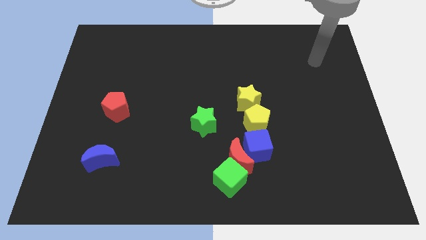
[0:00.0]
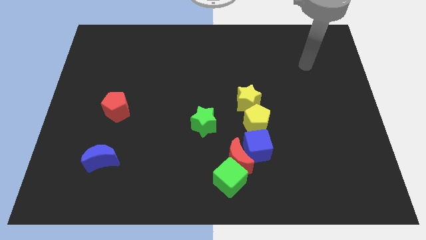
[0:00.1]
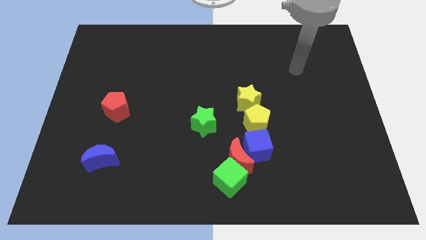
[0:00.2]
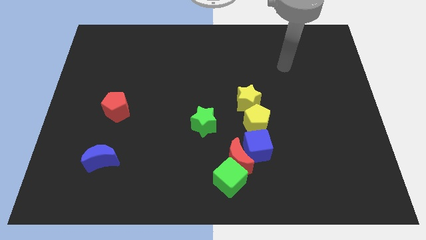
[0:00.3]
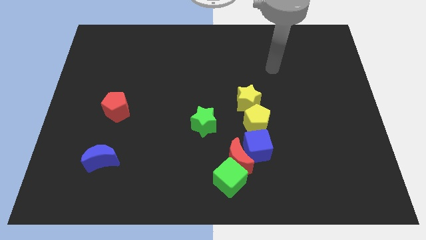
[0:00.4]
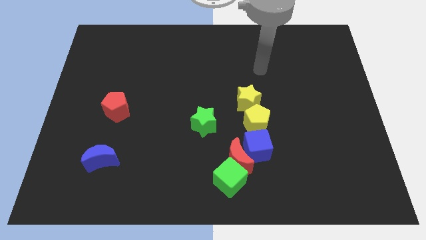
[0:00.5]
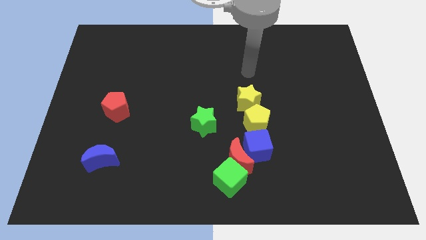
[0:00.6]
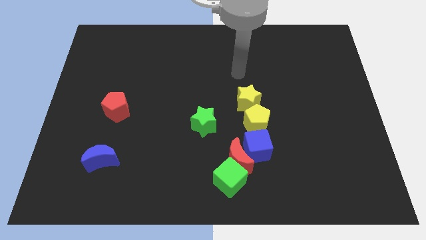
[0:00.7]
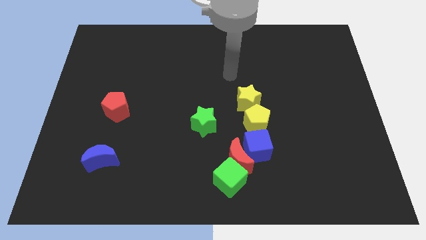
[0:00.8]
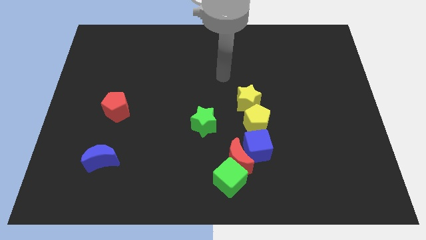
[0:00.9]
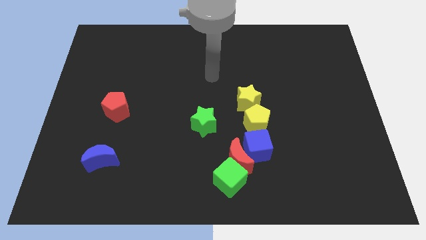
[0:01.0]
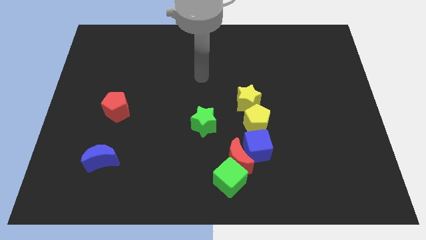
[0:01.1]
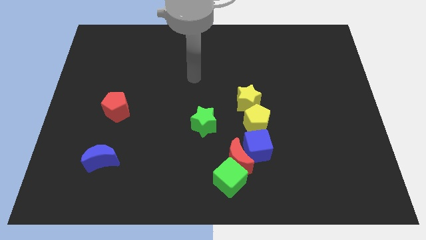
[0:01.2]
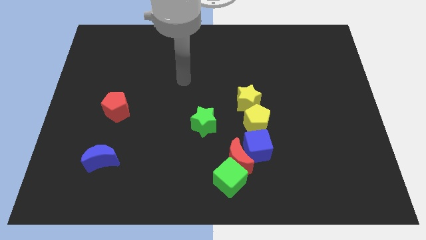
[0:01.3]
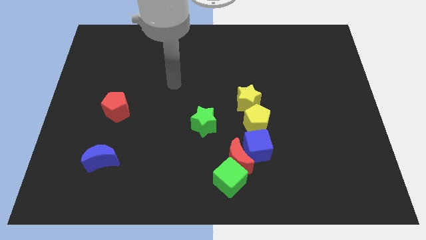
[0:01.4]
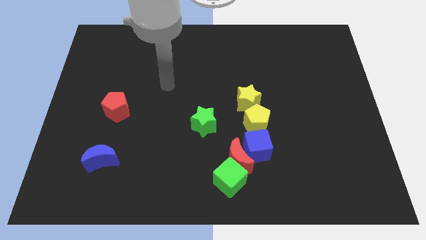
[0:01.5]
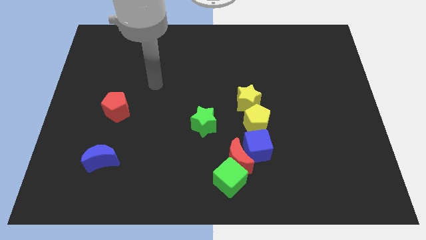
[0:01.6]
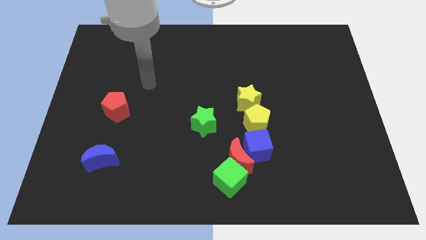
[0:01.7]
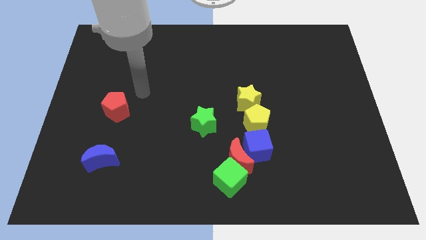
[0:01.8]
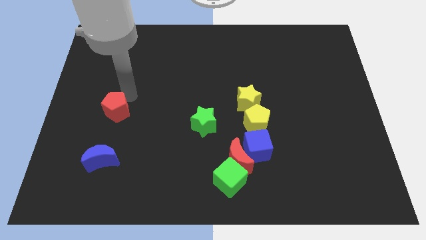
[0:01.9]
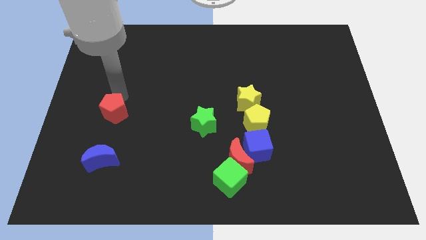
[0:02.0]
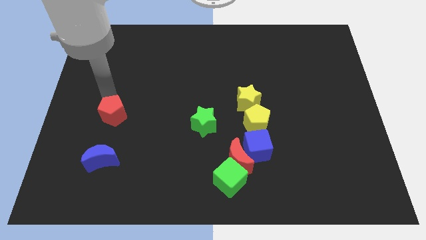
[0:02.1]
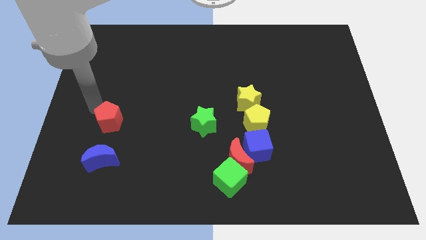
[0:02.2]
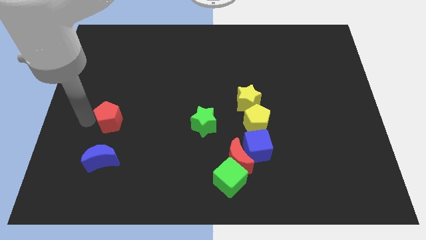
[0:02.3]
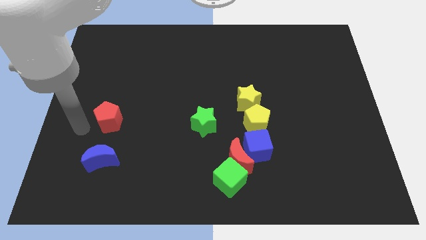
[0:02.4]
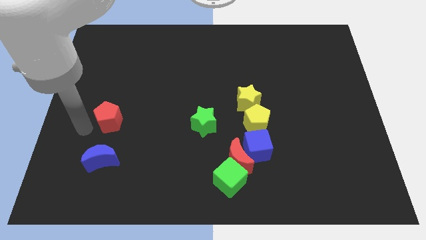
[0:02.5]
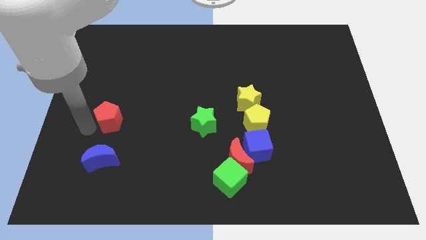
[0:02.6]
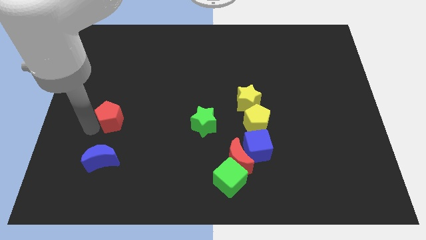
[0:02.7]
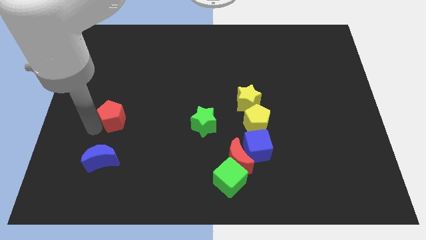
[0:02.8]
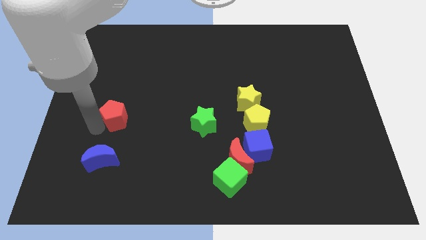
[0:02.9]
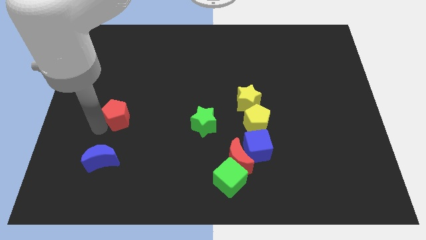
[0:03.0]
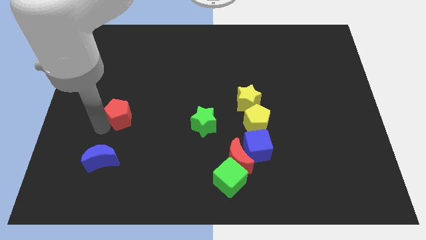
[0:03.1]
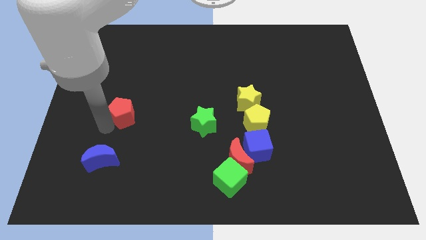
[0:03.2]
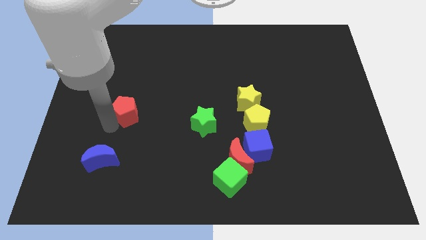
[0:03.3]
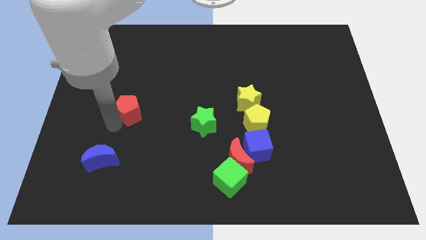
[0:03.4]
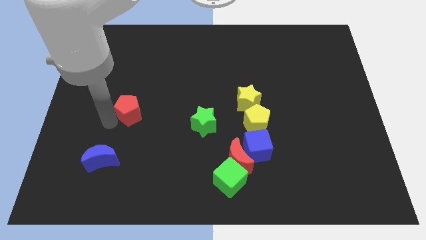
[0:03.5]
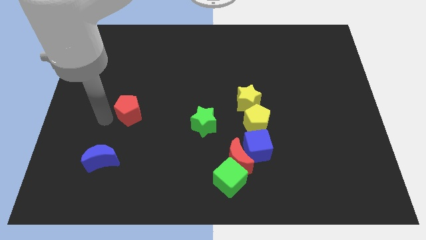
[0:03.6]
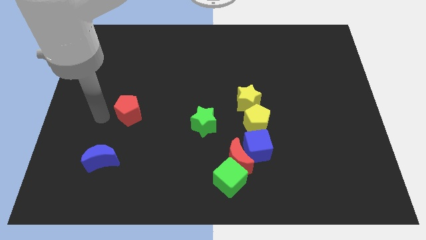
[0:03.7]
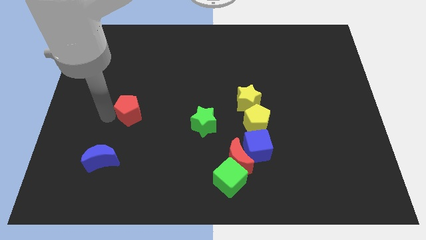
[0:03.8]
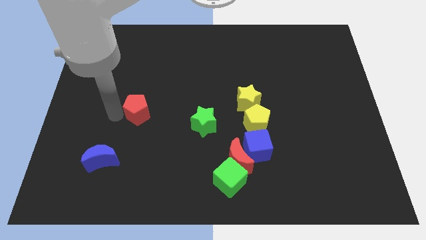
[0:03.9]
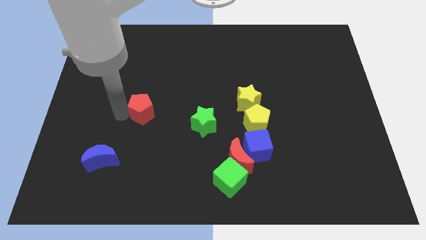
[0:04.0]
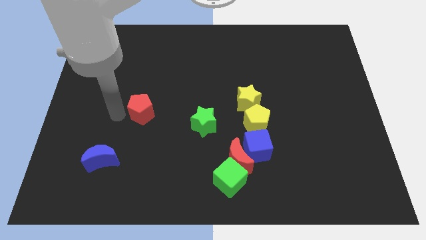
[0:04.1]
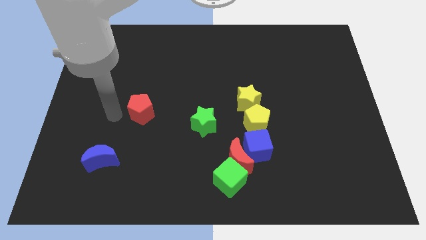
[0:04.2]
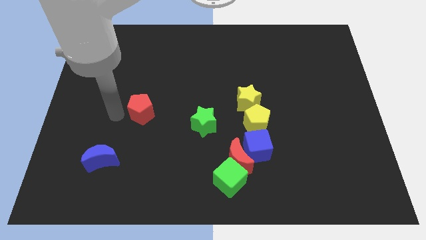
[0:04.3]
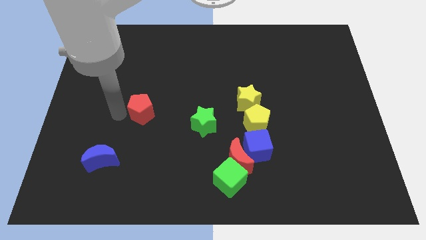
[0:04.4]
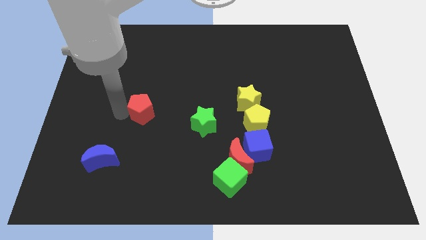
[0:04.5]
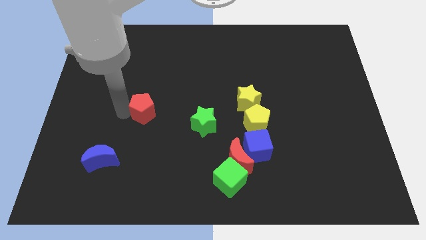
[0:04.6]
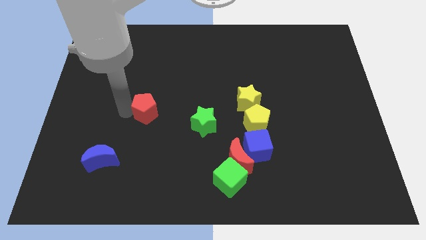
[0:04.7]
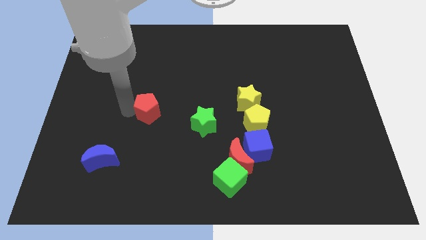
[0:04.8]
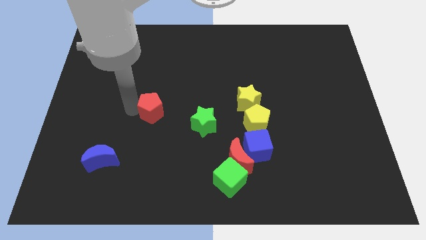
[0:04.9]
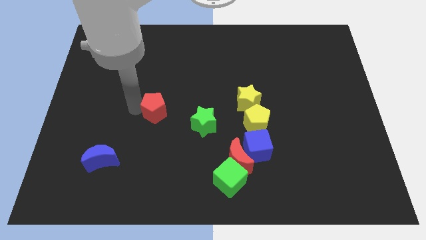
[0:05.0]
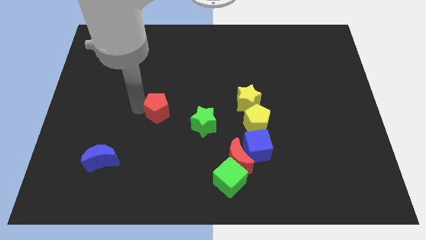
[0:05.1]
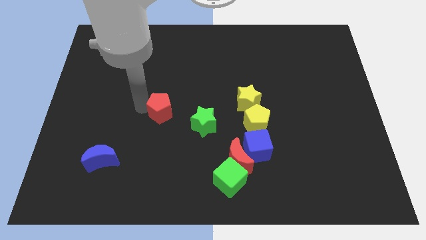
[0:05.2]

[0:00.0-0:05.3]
push the red pentagon to the center of the board
